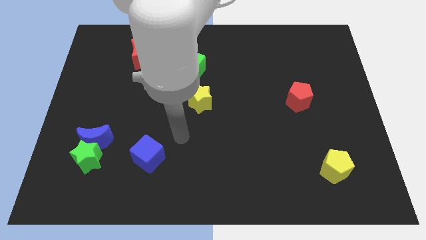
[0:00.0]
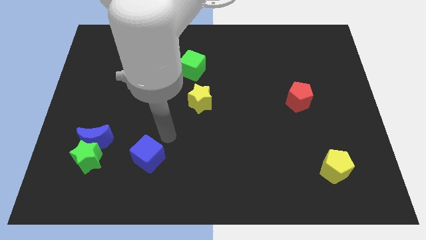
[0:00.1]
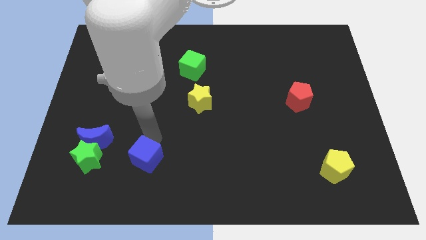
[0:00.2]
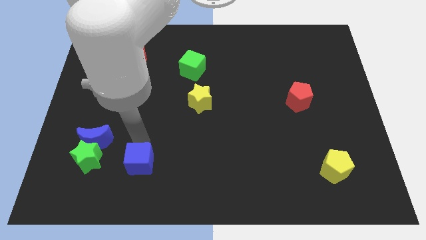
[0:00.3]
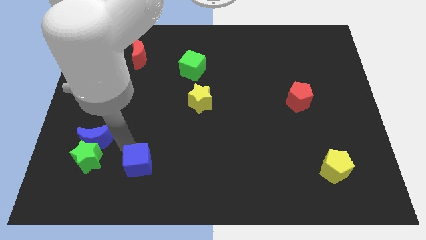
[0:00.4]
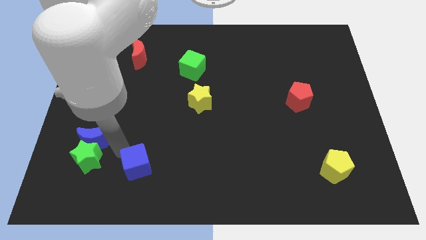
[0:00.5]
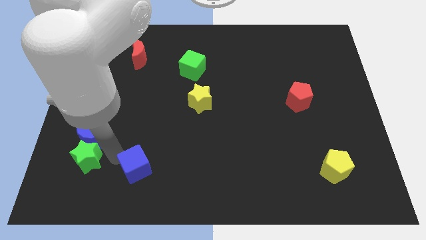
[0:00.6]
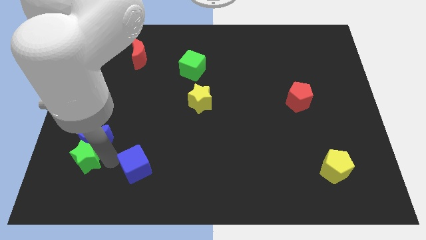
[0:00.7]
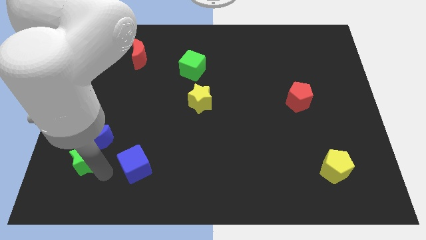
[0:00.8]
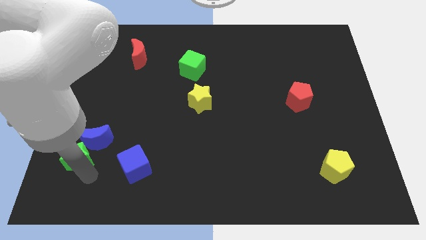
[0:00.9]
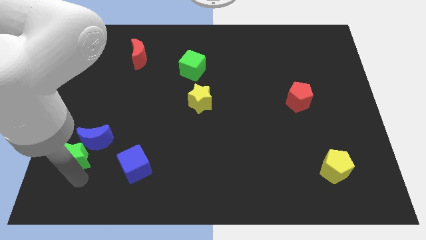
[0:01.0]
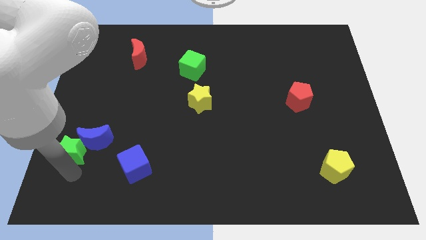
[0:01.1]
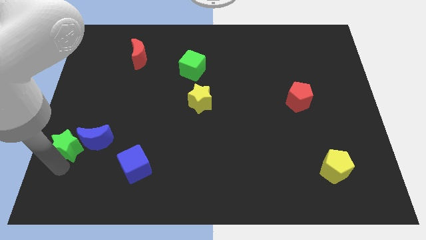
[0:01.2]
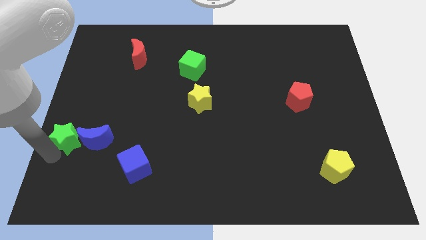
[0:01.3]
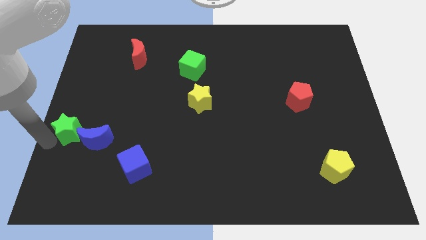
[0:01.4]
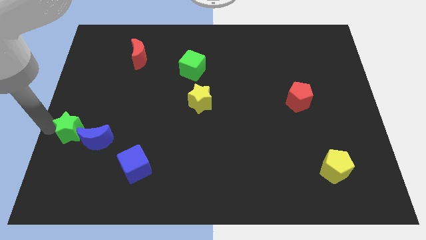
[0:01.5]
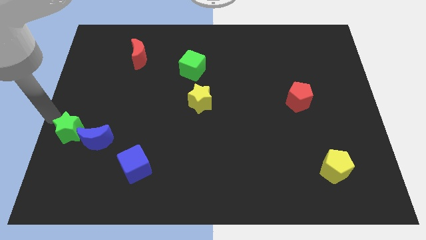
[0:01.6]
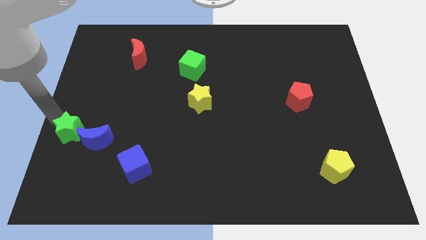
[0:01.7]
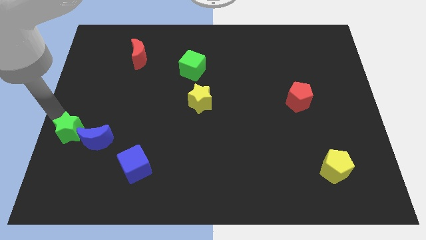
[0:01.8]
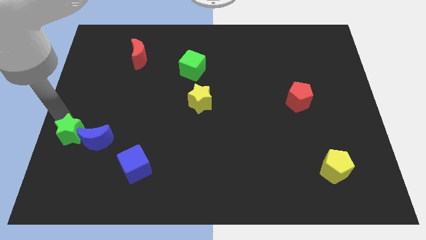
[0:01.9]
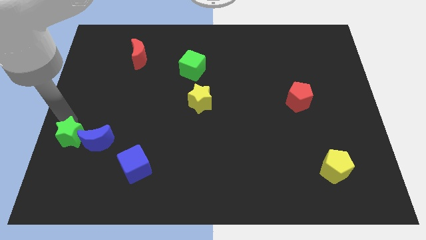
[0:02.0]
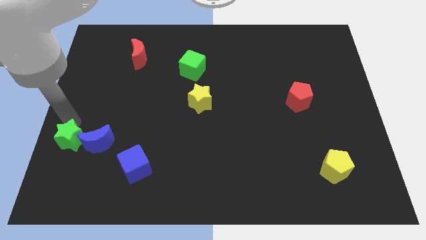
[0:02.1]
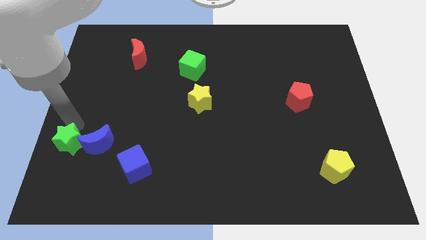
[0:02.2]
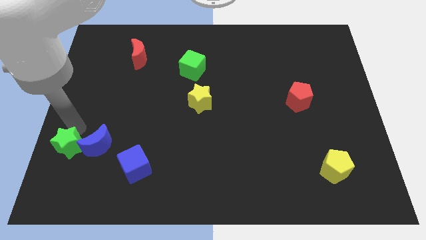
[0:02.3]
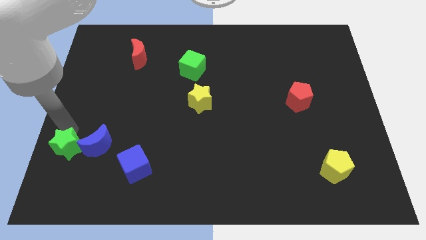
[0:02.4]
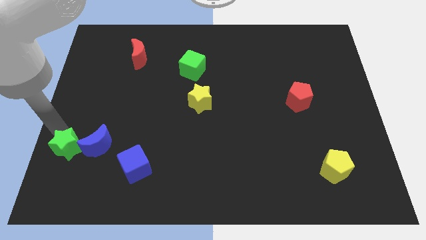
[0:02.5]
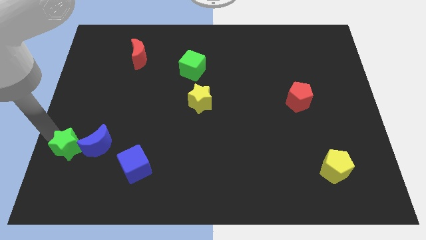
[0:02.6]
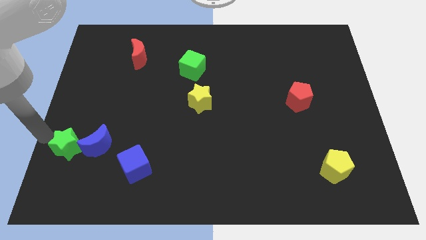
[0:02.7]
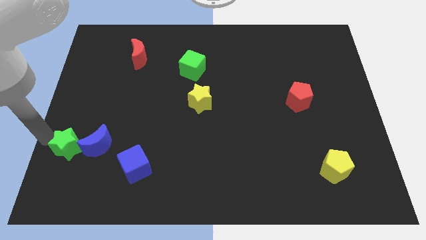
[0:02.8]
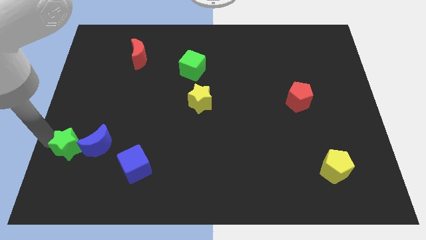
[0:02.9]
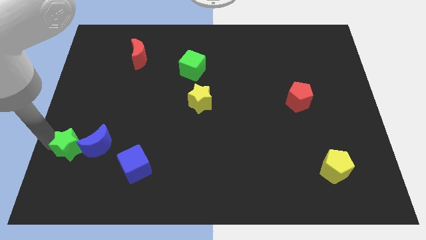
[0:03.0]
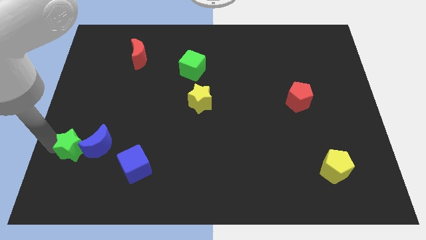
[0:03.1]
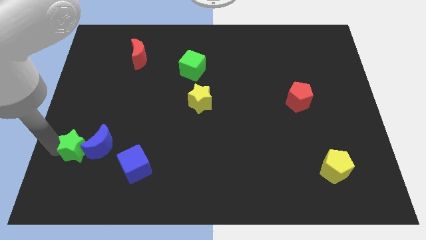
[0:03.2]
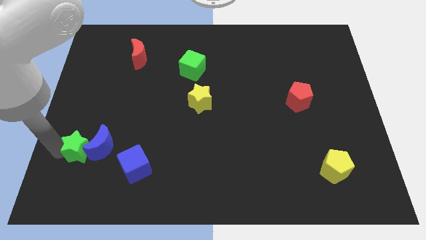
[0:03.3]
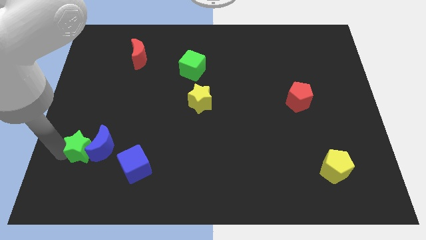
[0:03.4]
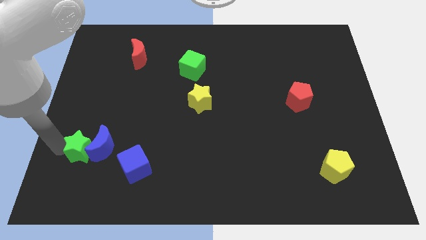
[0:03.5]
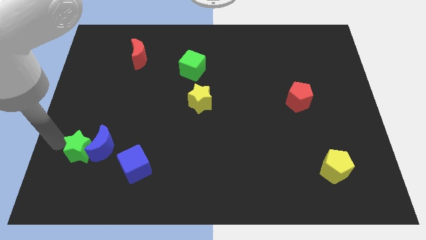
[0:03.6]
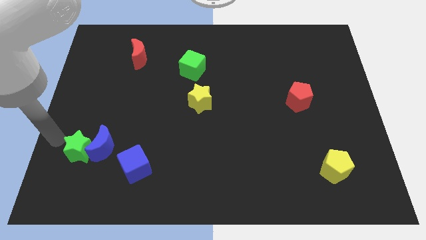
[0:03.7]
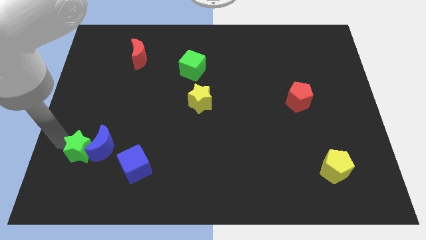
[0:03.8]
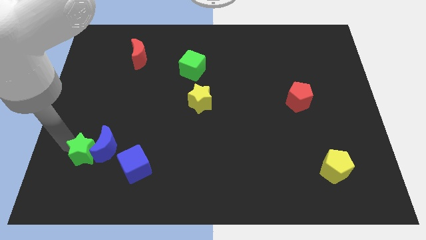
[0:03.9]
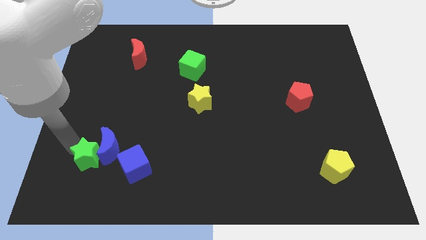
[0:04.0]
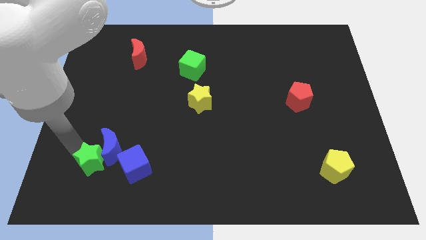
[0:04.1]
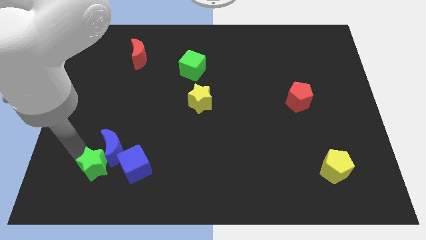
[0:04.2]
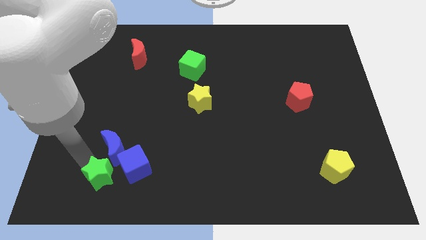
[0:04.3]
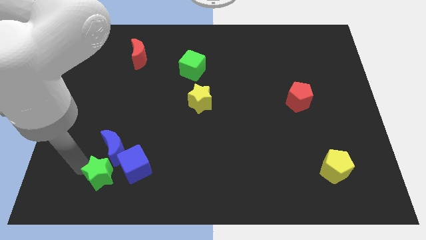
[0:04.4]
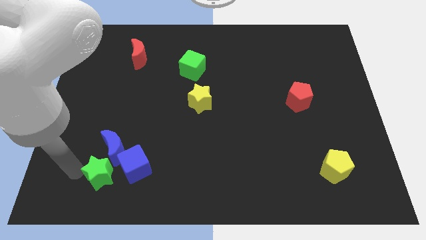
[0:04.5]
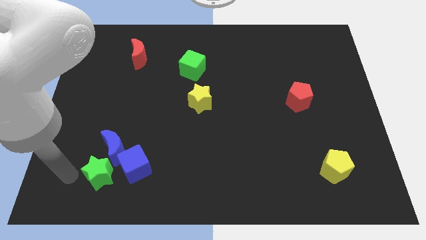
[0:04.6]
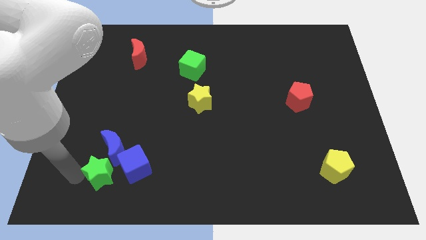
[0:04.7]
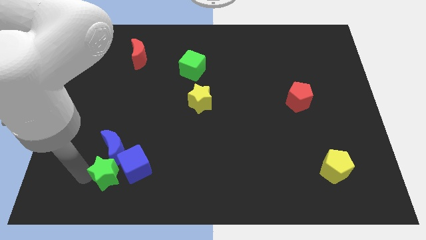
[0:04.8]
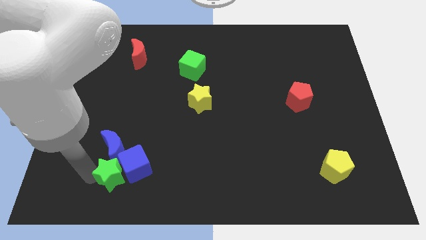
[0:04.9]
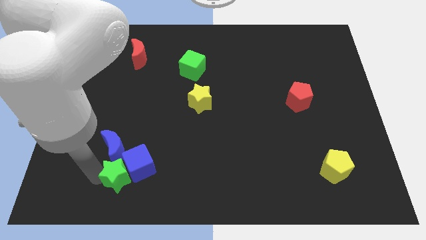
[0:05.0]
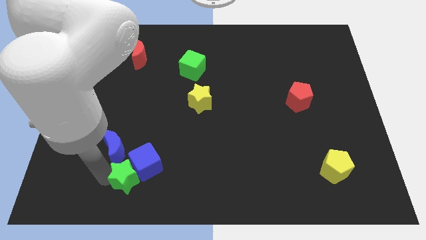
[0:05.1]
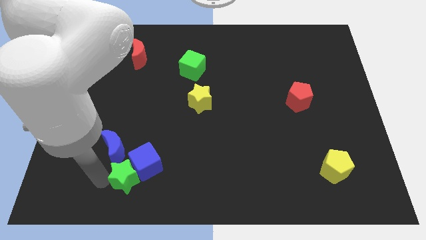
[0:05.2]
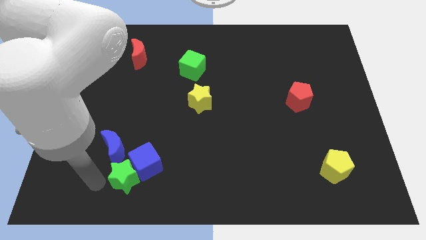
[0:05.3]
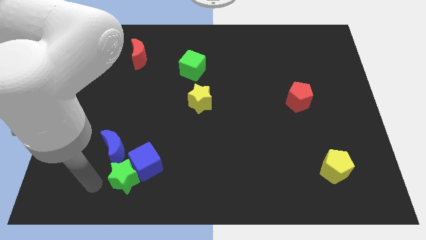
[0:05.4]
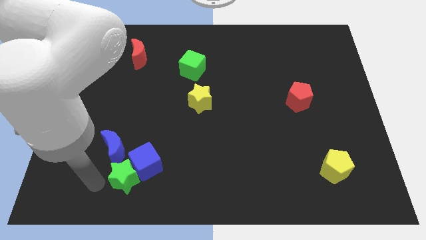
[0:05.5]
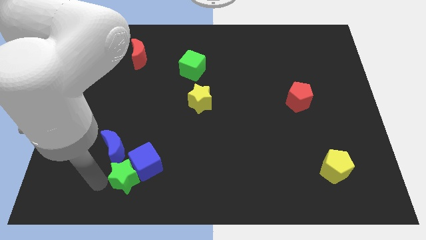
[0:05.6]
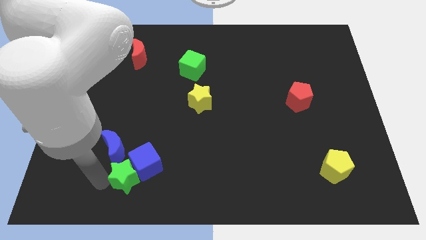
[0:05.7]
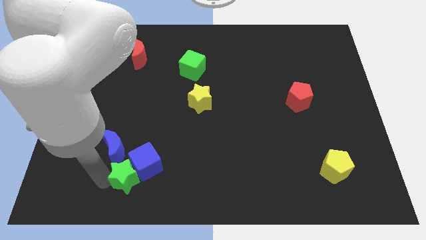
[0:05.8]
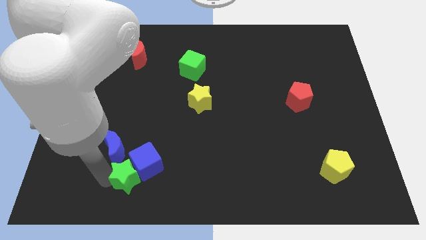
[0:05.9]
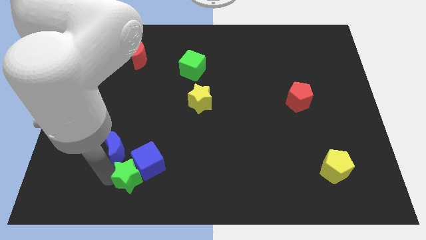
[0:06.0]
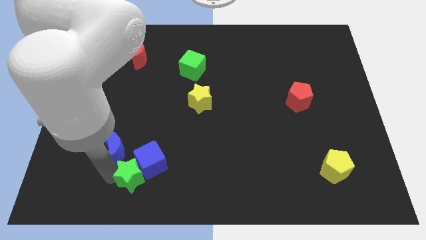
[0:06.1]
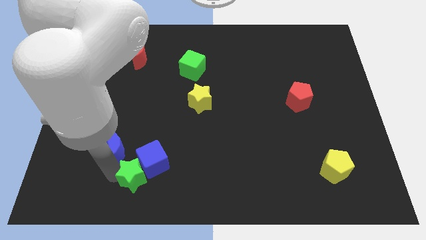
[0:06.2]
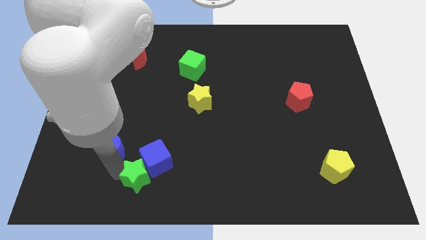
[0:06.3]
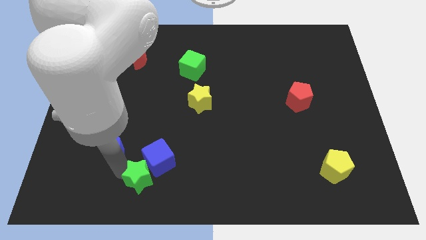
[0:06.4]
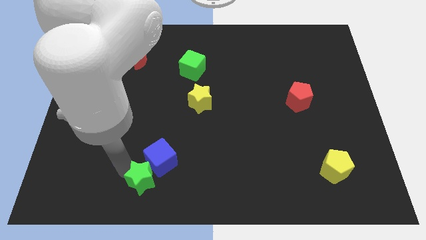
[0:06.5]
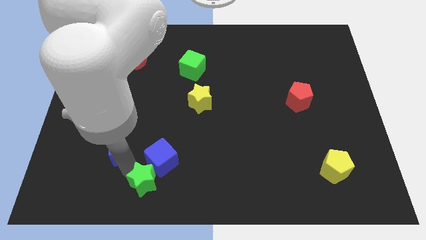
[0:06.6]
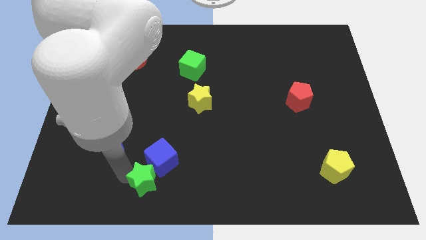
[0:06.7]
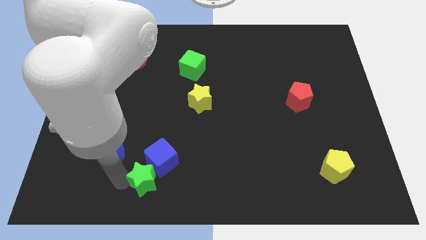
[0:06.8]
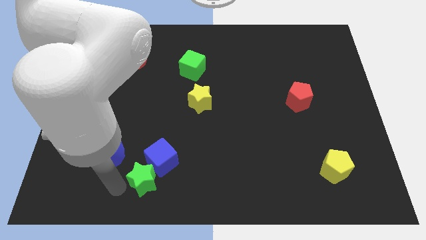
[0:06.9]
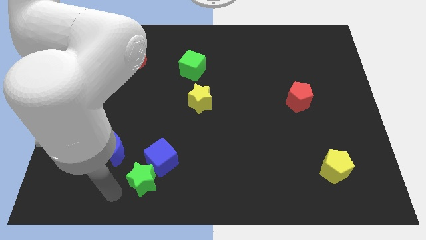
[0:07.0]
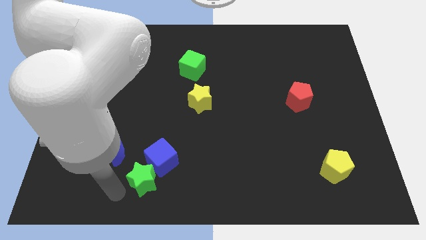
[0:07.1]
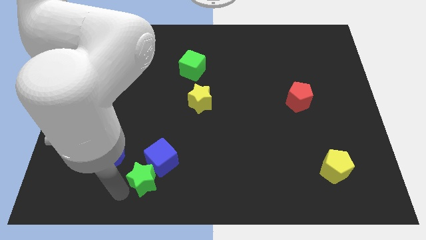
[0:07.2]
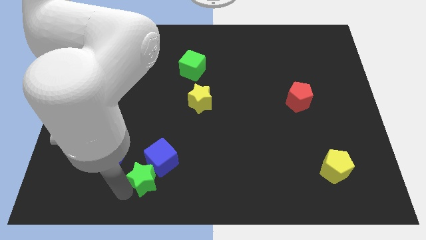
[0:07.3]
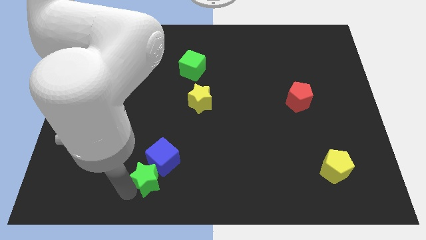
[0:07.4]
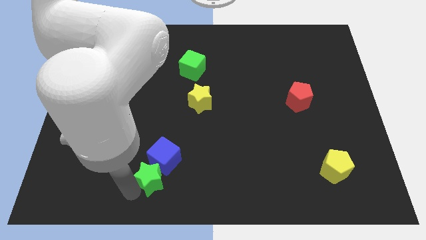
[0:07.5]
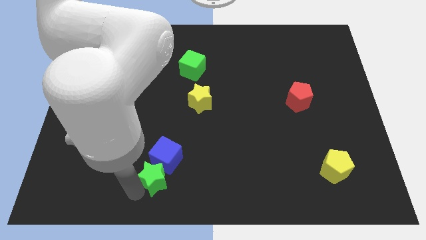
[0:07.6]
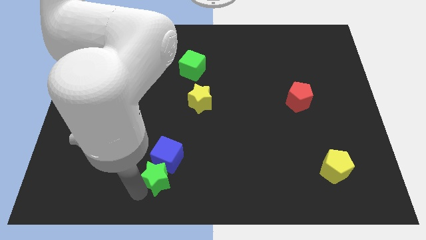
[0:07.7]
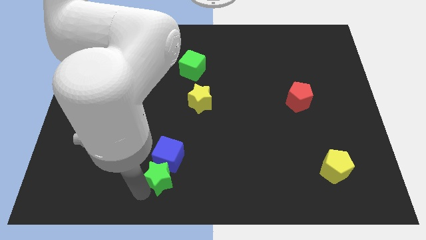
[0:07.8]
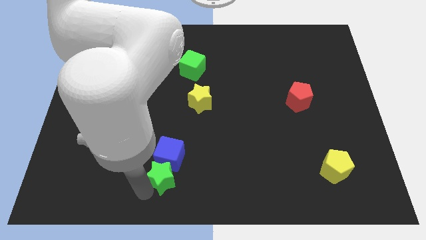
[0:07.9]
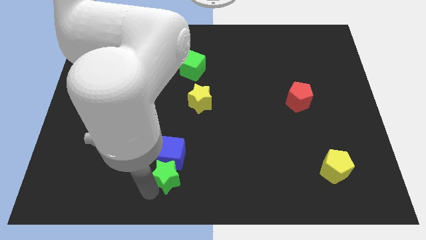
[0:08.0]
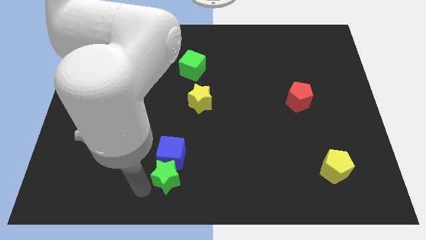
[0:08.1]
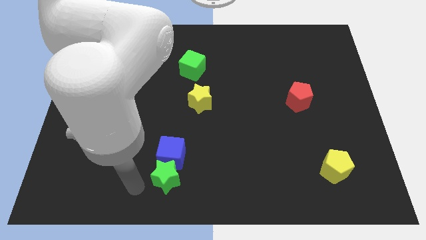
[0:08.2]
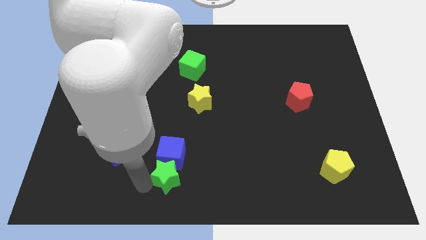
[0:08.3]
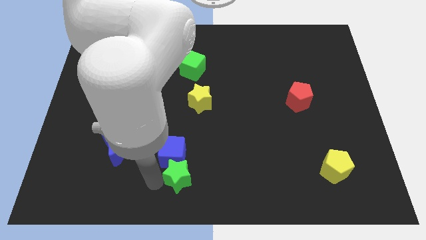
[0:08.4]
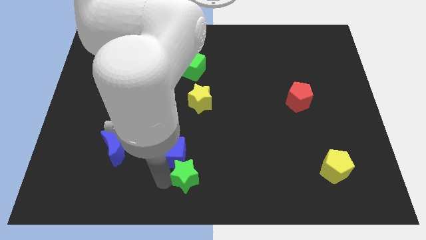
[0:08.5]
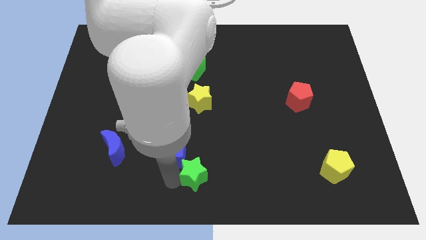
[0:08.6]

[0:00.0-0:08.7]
slide the green star right
